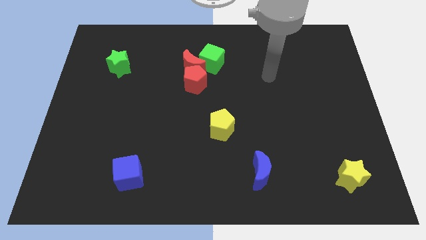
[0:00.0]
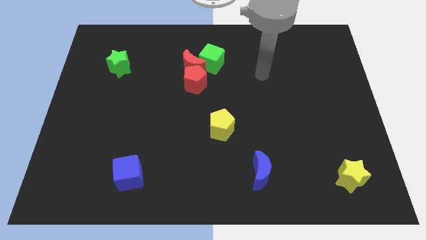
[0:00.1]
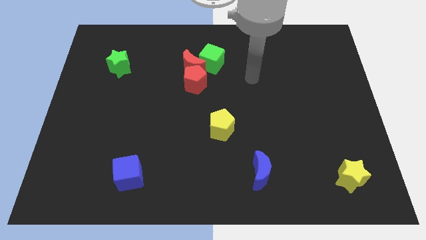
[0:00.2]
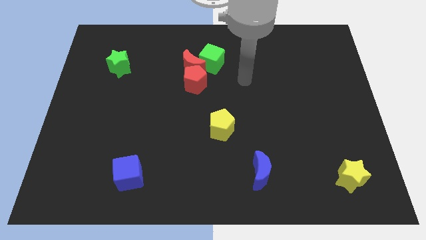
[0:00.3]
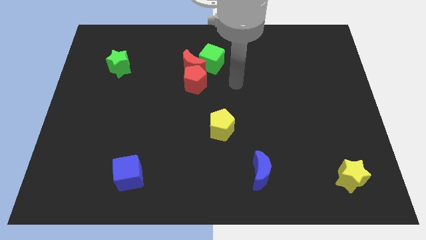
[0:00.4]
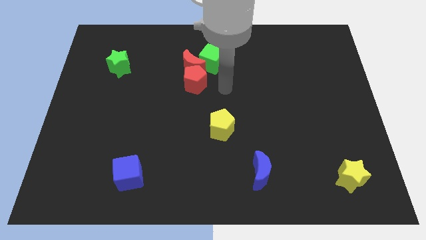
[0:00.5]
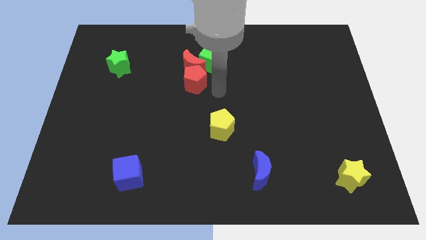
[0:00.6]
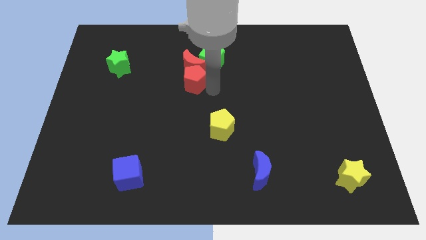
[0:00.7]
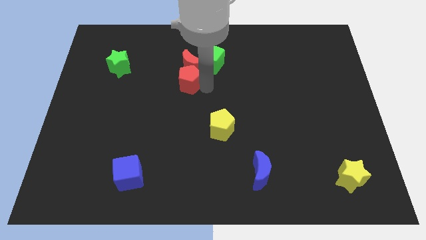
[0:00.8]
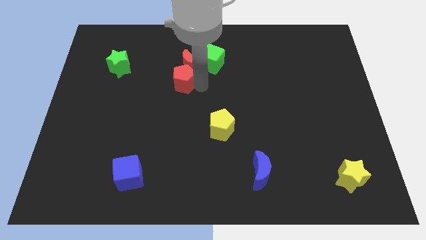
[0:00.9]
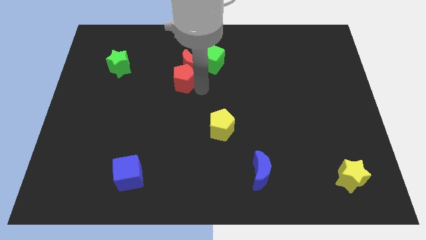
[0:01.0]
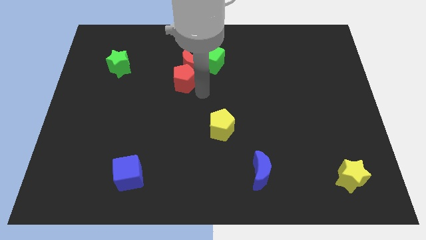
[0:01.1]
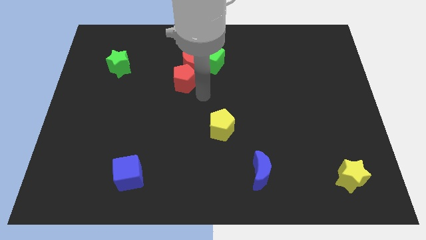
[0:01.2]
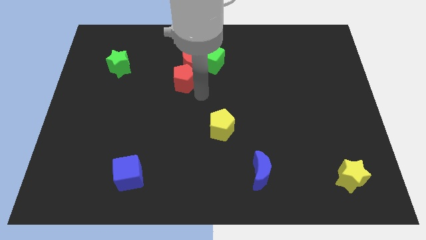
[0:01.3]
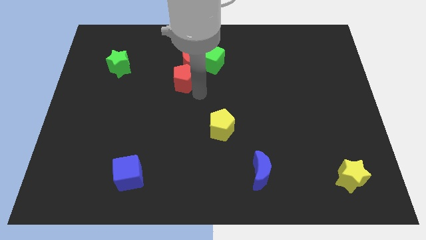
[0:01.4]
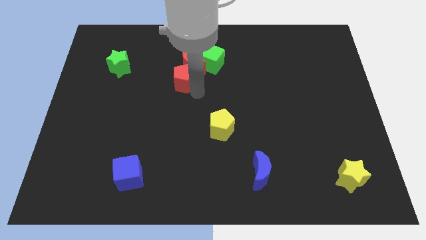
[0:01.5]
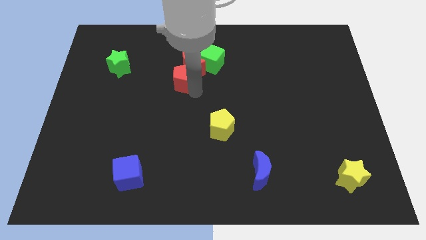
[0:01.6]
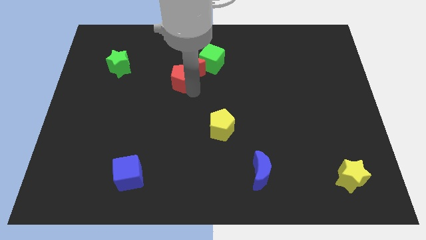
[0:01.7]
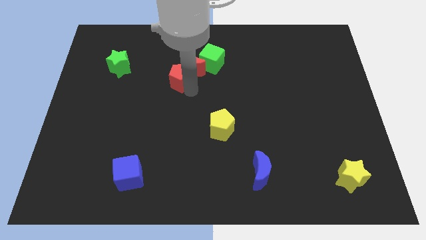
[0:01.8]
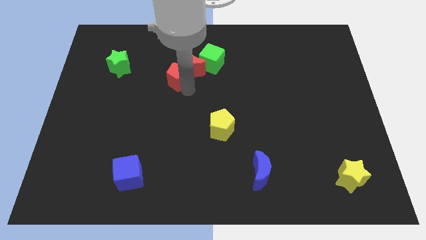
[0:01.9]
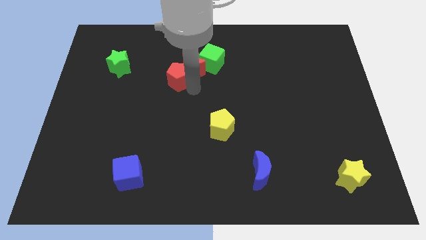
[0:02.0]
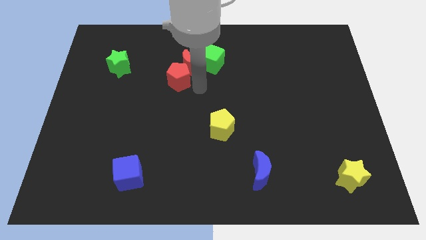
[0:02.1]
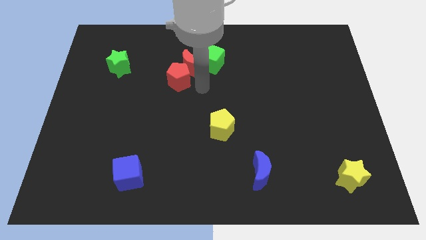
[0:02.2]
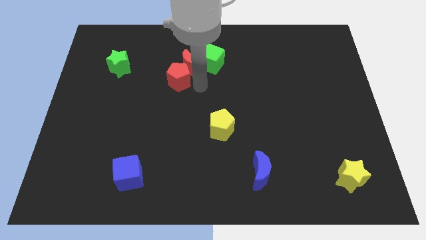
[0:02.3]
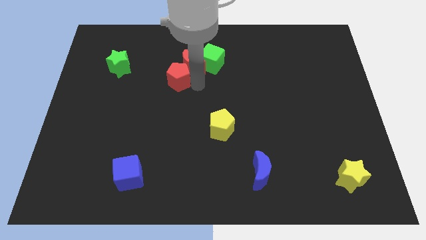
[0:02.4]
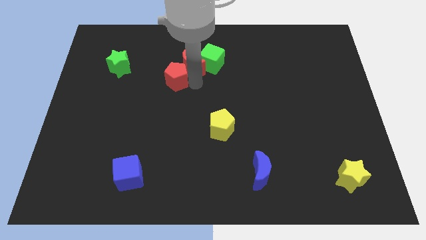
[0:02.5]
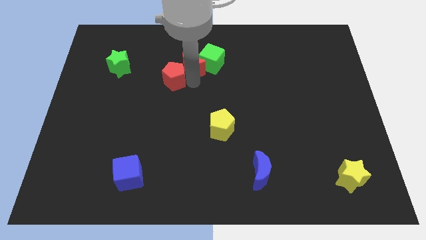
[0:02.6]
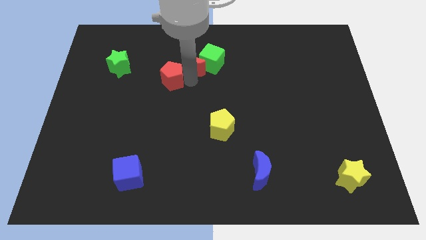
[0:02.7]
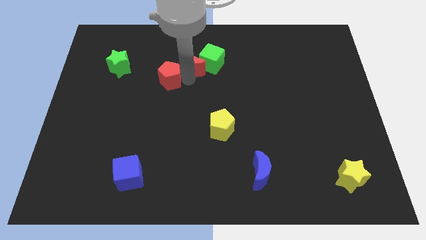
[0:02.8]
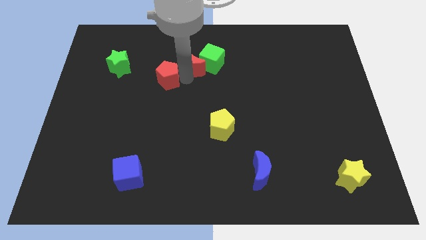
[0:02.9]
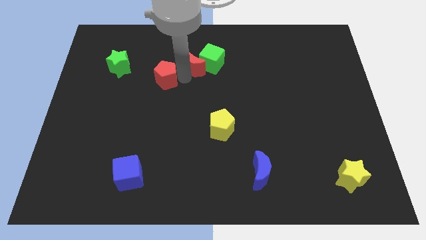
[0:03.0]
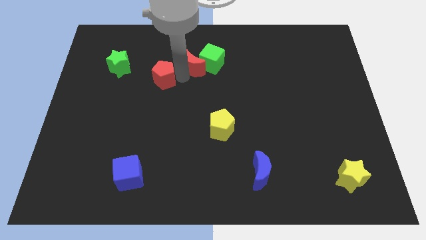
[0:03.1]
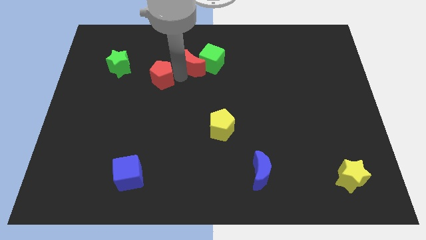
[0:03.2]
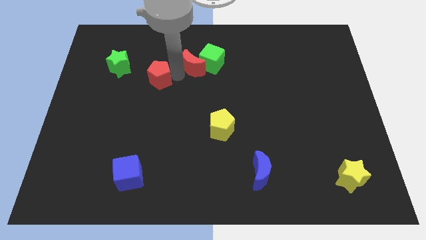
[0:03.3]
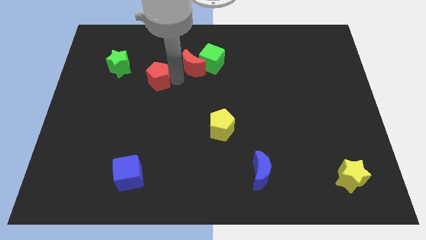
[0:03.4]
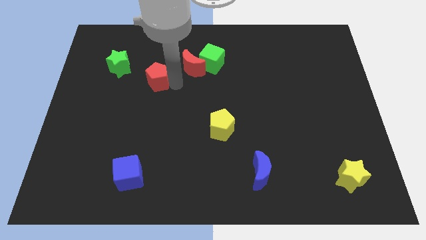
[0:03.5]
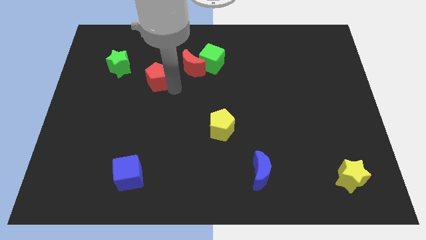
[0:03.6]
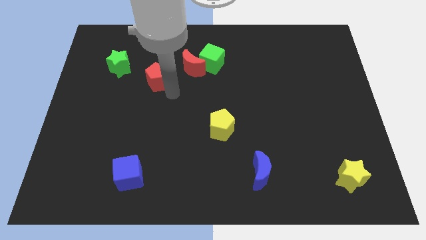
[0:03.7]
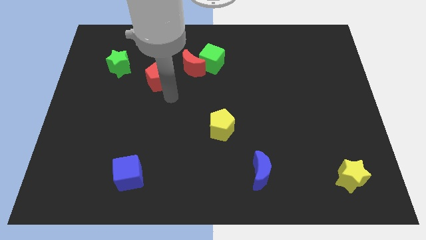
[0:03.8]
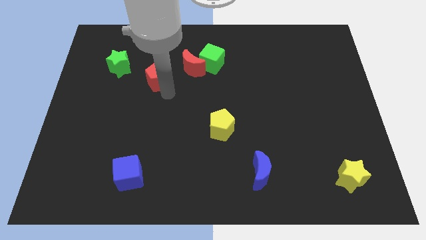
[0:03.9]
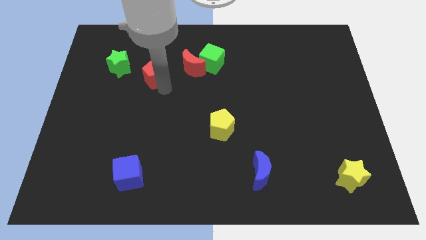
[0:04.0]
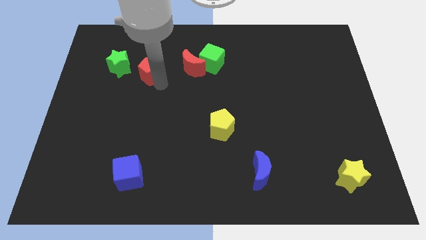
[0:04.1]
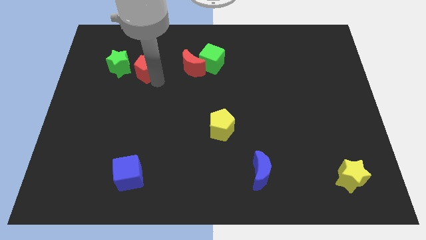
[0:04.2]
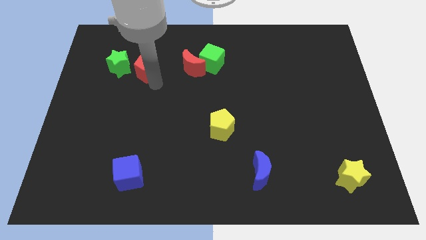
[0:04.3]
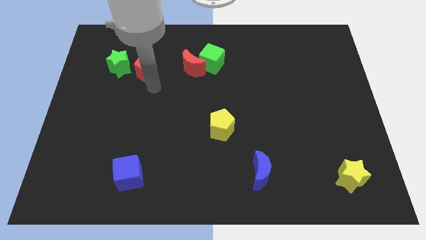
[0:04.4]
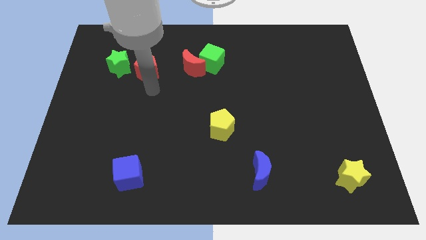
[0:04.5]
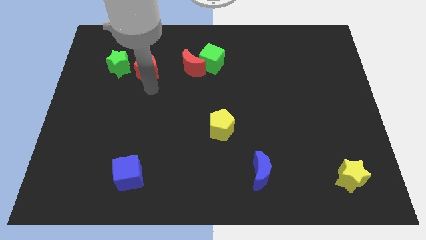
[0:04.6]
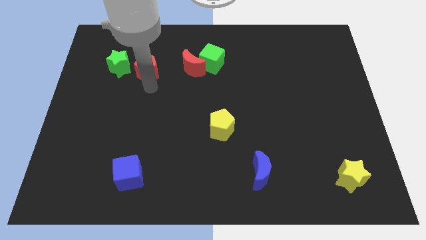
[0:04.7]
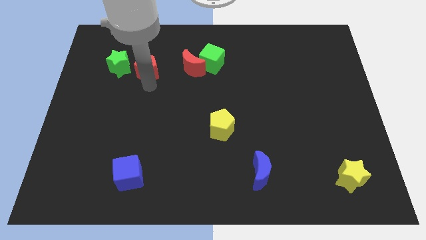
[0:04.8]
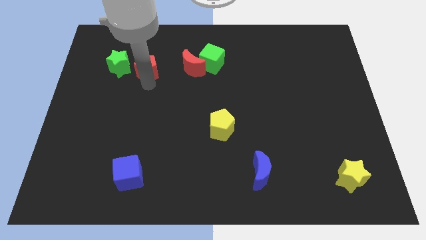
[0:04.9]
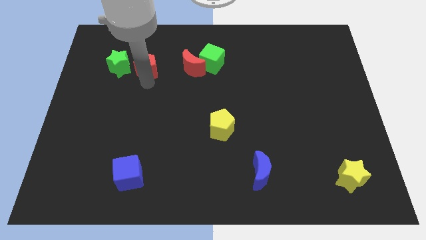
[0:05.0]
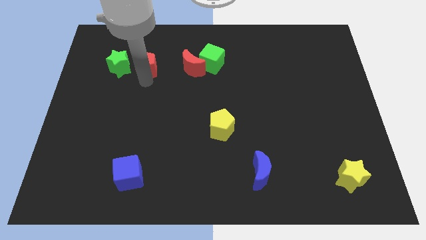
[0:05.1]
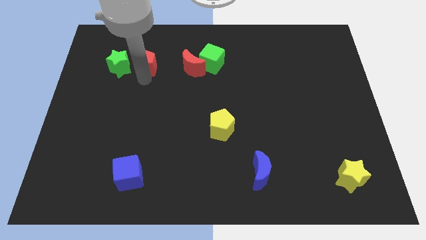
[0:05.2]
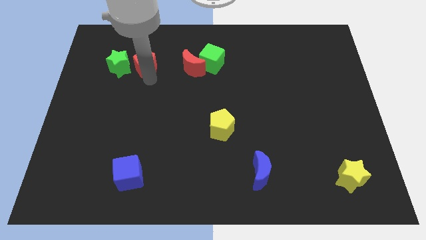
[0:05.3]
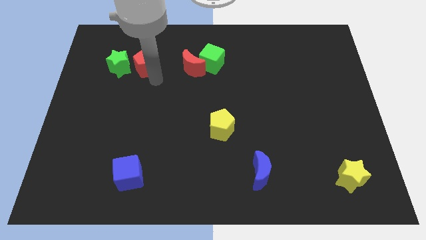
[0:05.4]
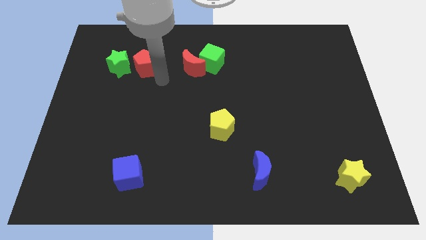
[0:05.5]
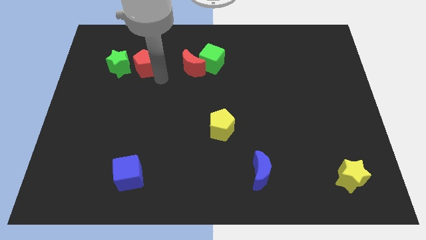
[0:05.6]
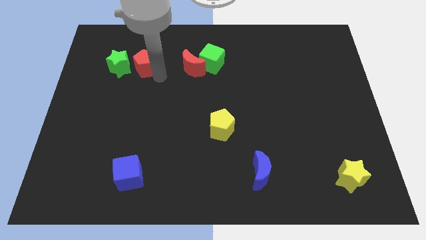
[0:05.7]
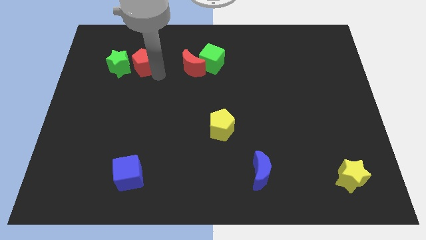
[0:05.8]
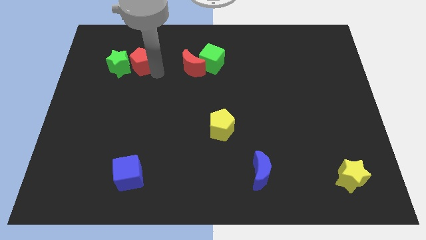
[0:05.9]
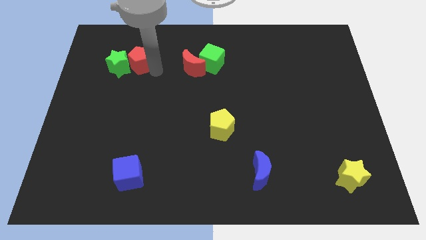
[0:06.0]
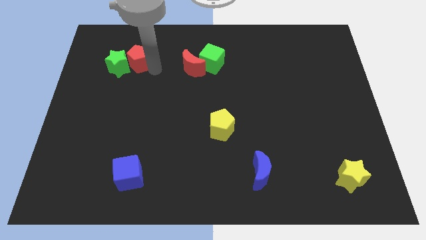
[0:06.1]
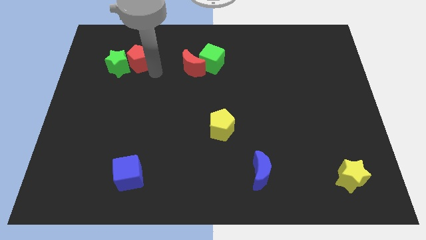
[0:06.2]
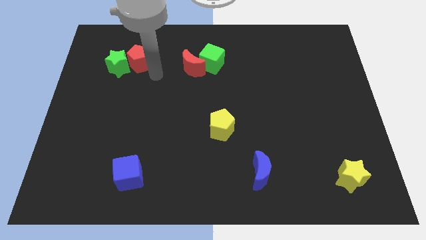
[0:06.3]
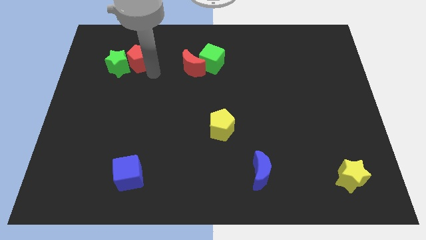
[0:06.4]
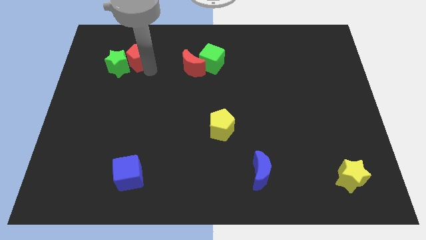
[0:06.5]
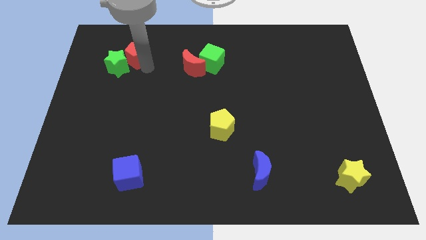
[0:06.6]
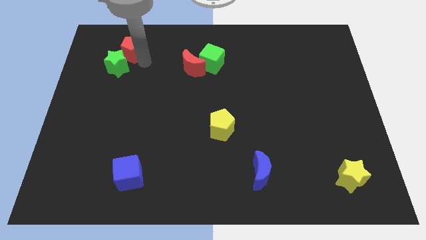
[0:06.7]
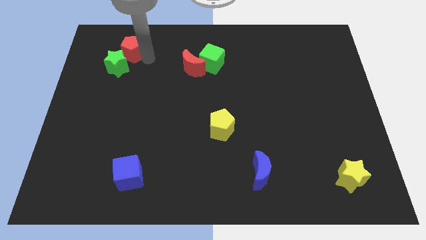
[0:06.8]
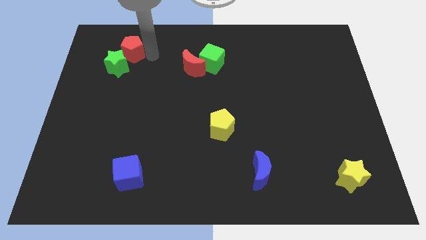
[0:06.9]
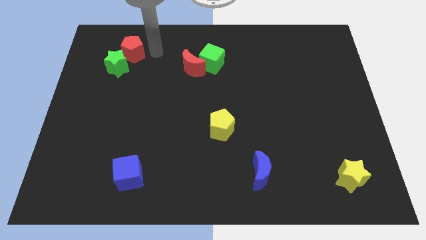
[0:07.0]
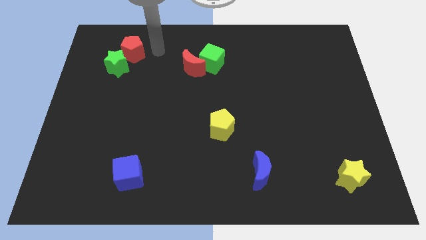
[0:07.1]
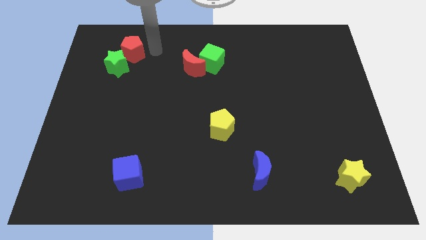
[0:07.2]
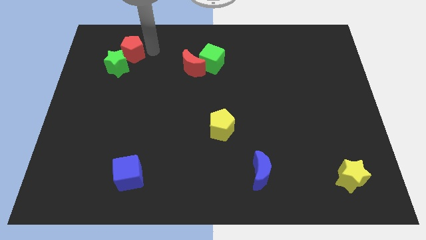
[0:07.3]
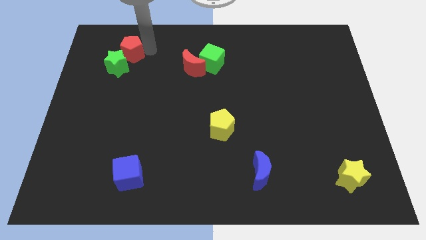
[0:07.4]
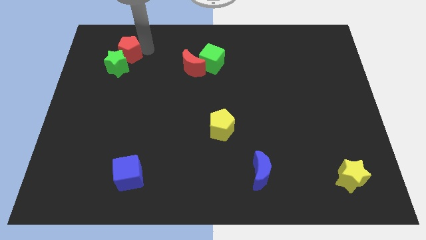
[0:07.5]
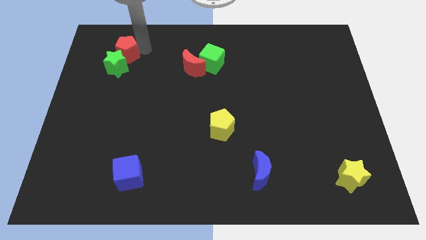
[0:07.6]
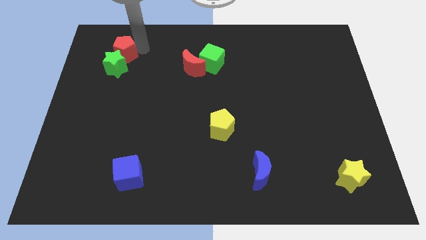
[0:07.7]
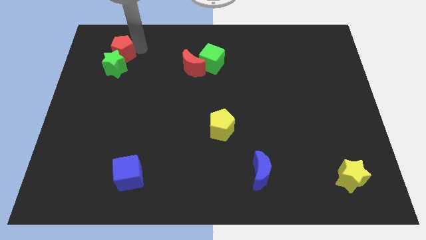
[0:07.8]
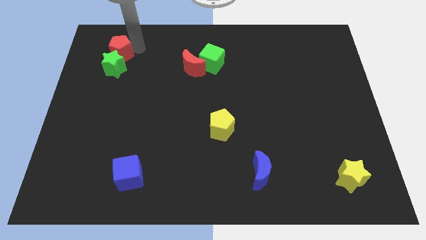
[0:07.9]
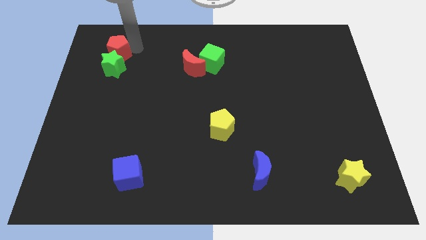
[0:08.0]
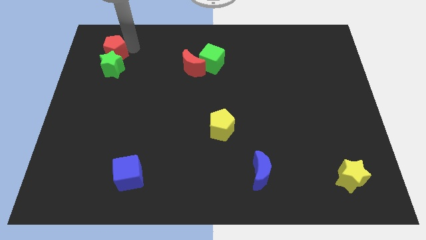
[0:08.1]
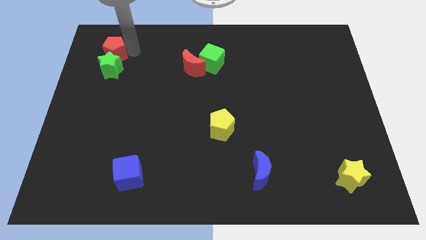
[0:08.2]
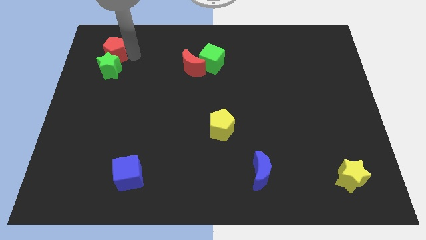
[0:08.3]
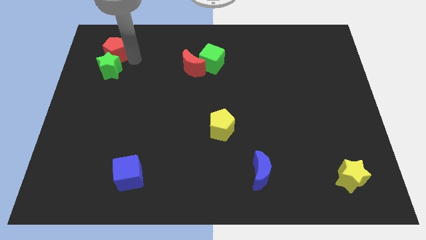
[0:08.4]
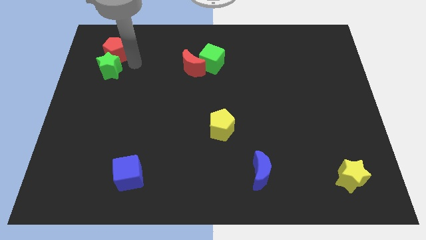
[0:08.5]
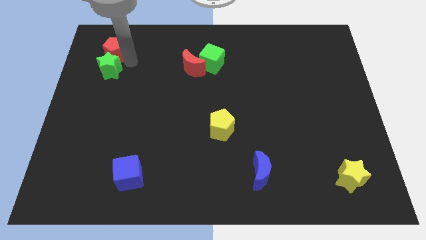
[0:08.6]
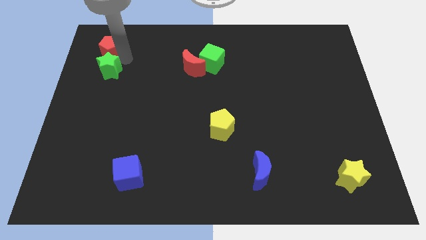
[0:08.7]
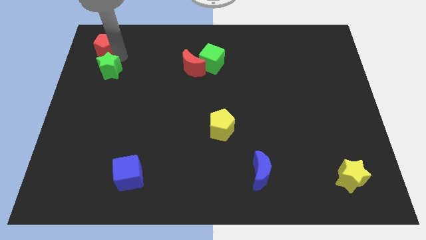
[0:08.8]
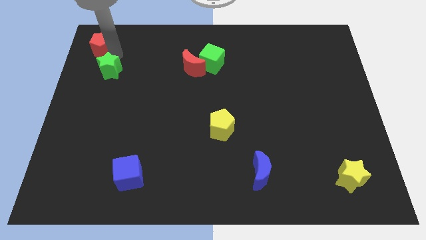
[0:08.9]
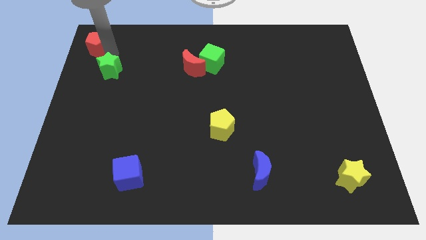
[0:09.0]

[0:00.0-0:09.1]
put the red pentagon to the upper left corner
